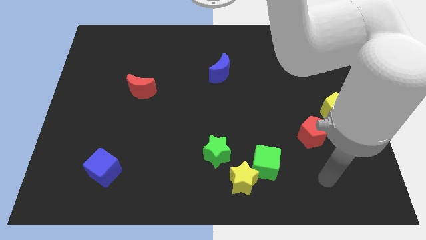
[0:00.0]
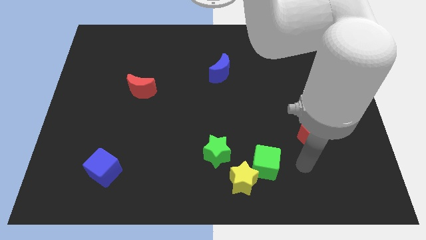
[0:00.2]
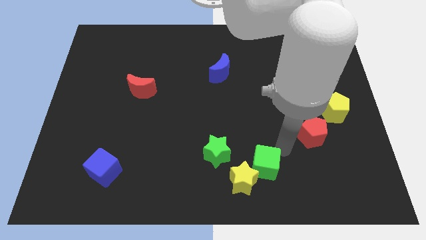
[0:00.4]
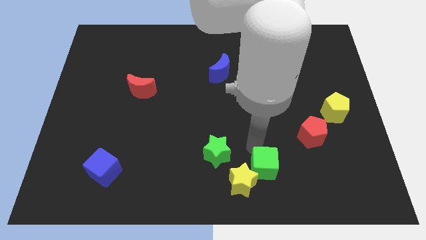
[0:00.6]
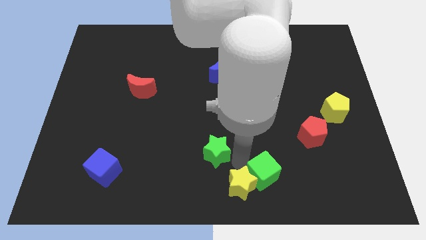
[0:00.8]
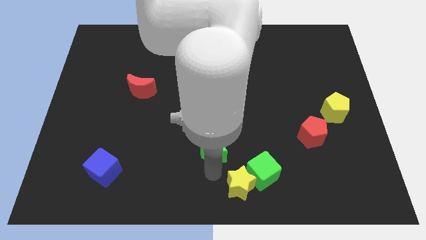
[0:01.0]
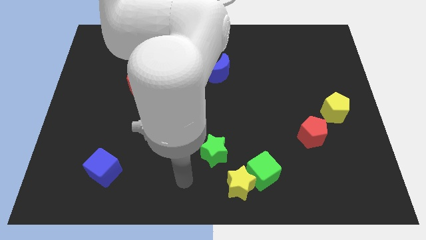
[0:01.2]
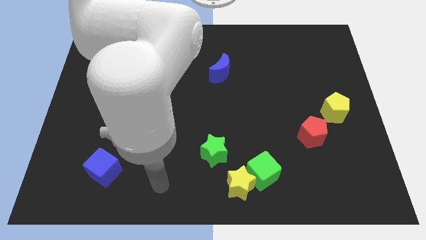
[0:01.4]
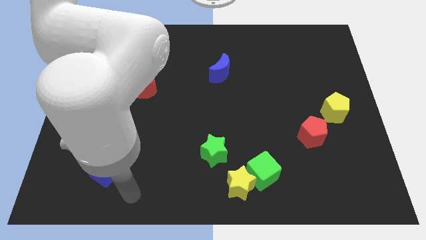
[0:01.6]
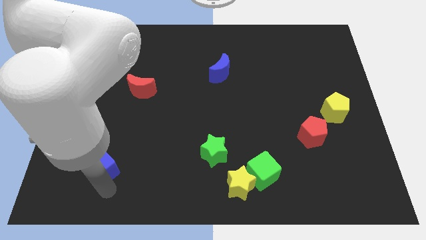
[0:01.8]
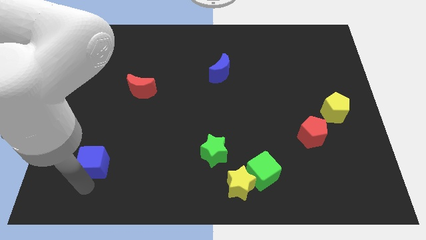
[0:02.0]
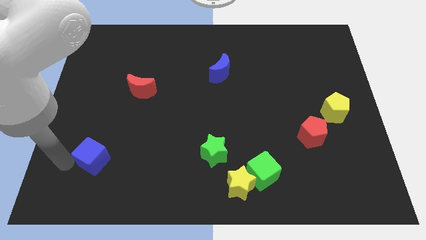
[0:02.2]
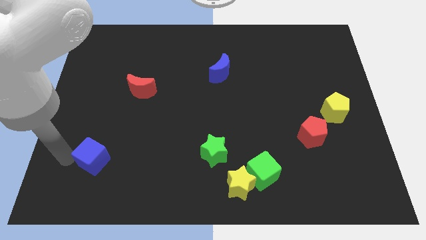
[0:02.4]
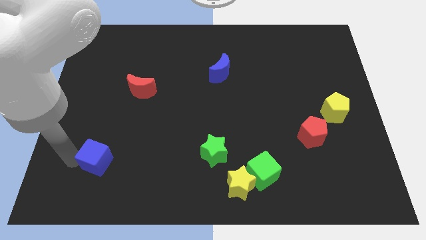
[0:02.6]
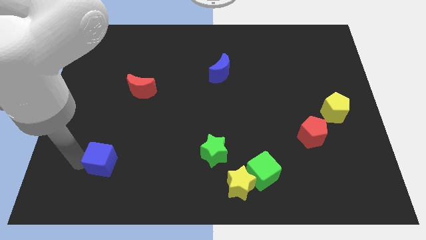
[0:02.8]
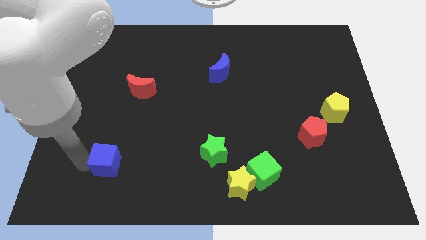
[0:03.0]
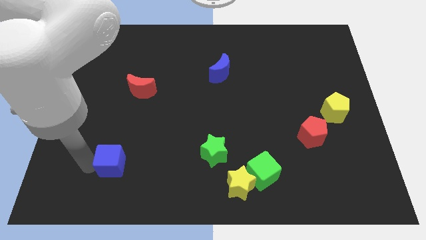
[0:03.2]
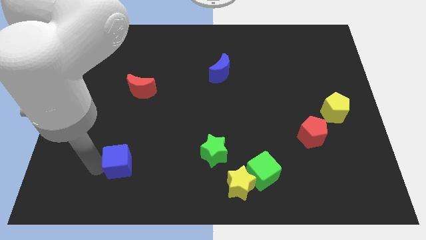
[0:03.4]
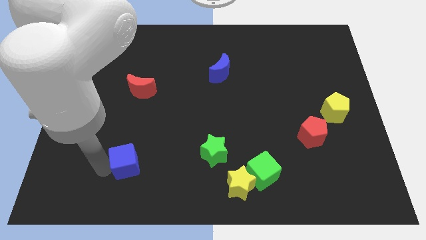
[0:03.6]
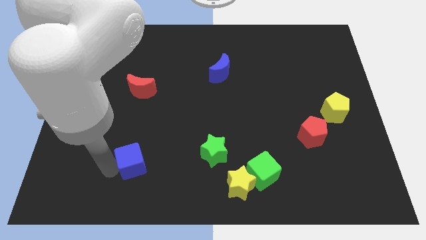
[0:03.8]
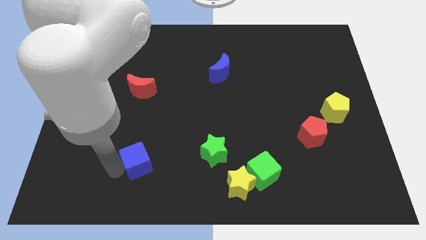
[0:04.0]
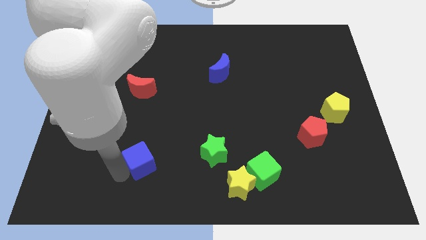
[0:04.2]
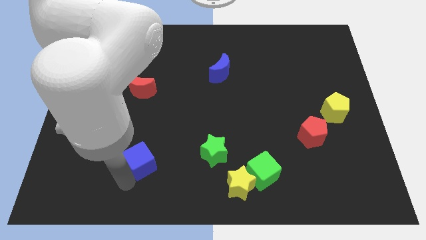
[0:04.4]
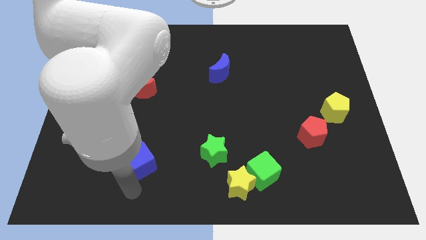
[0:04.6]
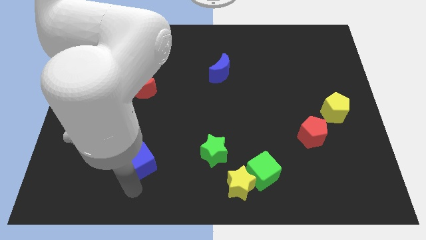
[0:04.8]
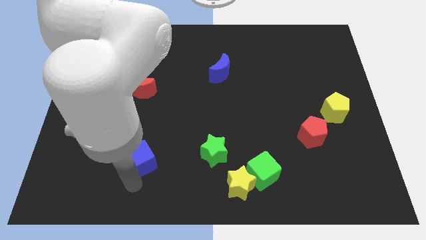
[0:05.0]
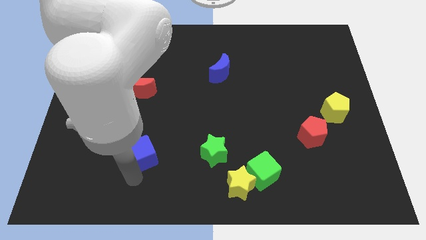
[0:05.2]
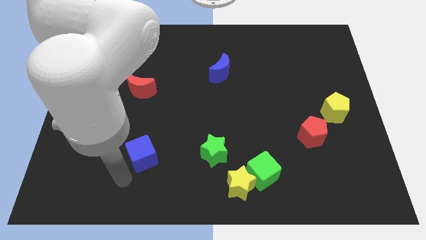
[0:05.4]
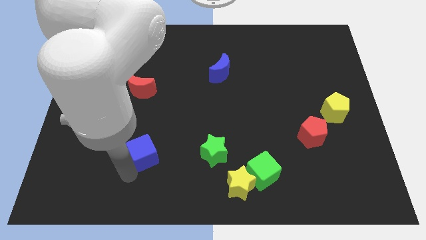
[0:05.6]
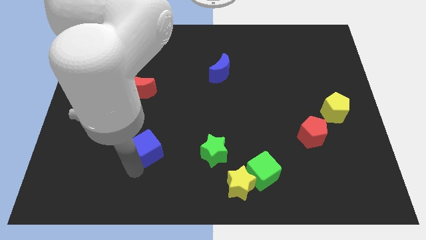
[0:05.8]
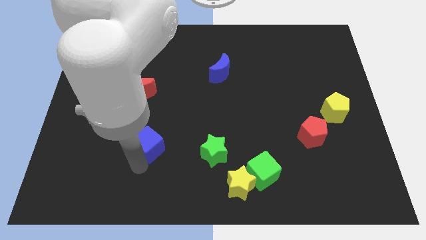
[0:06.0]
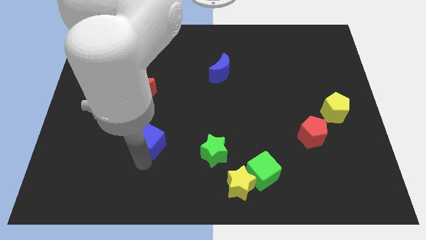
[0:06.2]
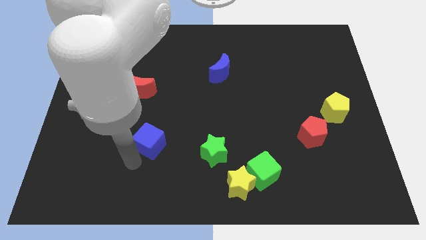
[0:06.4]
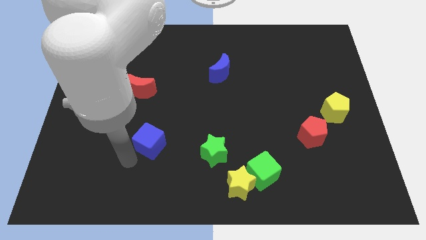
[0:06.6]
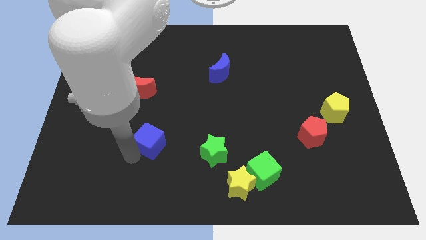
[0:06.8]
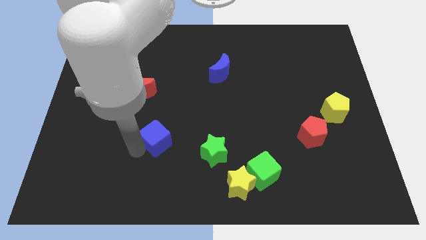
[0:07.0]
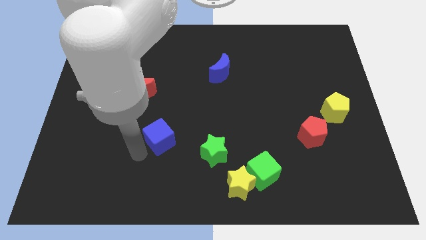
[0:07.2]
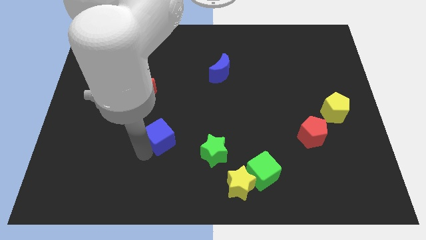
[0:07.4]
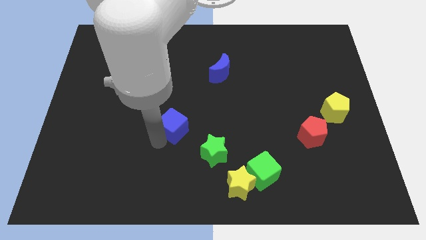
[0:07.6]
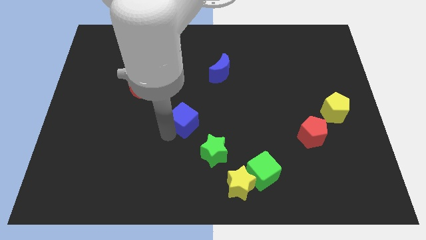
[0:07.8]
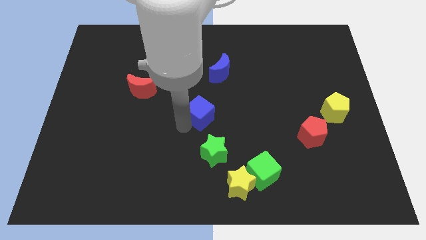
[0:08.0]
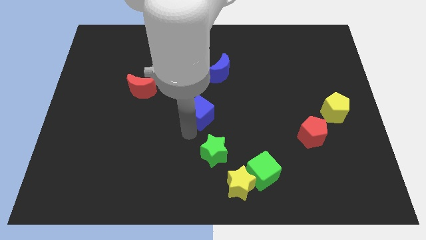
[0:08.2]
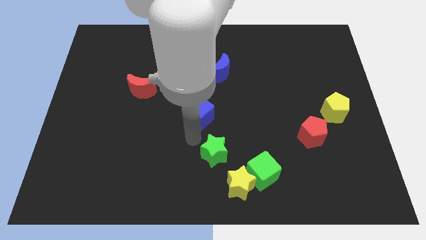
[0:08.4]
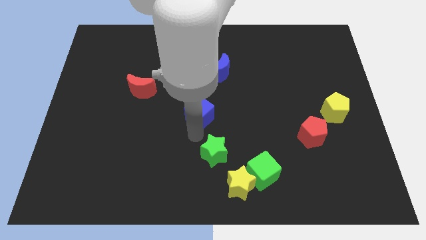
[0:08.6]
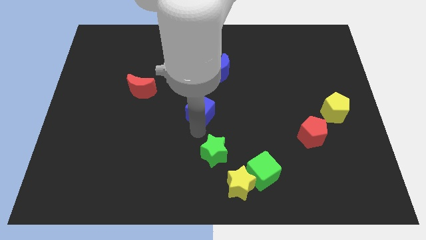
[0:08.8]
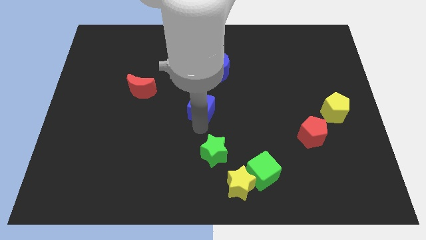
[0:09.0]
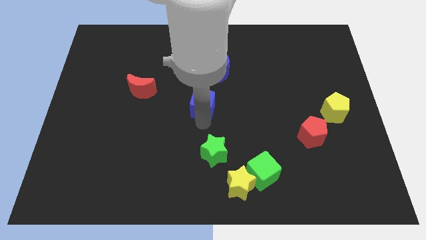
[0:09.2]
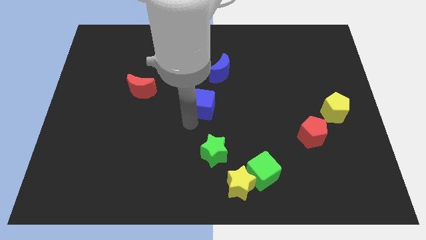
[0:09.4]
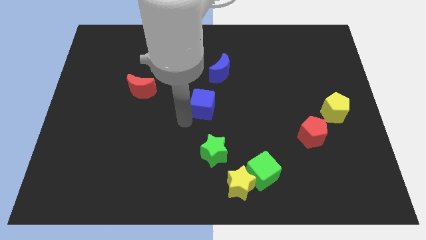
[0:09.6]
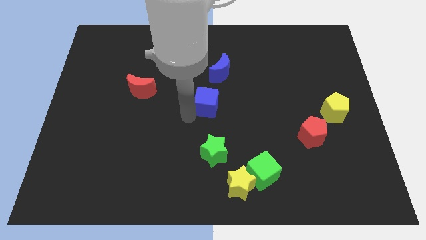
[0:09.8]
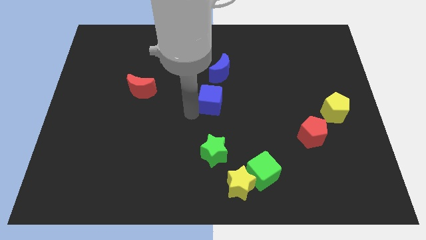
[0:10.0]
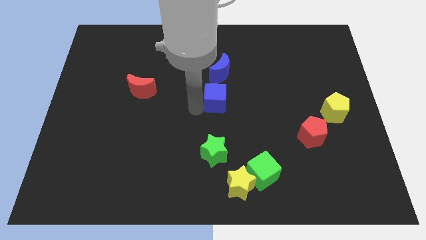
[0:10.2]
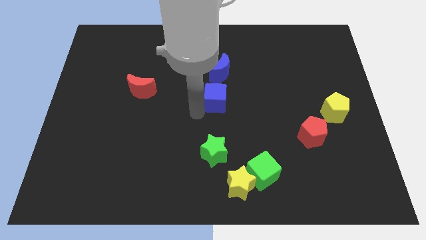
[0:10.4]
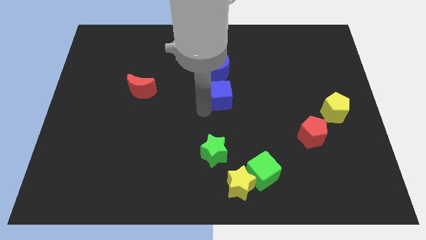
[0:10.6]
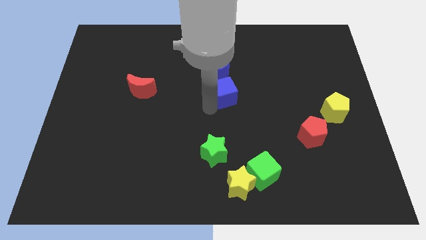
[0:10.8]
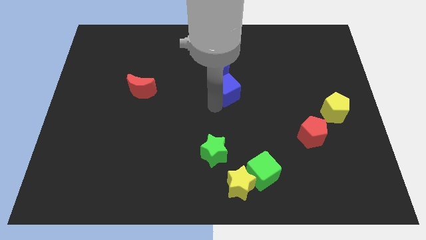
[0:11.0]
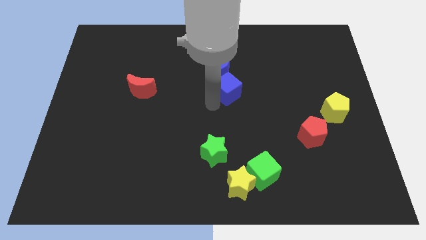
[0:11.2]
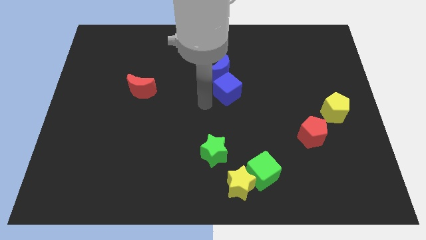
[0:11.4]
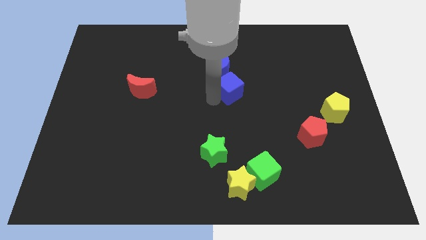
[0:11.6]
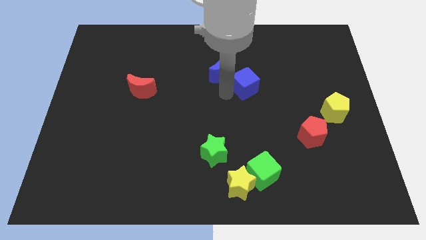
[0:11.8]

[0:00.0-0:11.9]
push the blue cube to the right of the blue moon

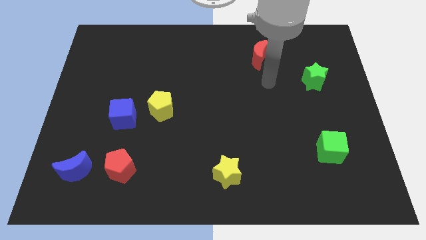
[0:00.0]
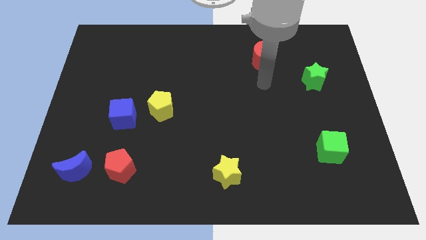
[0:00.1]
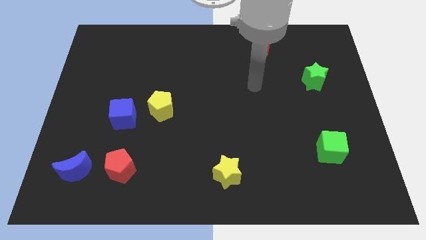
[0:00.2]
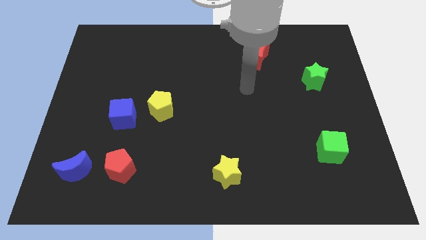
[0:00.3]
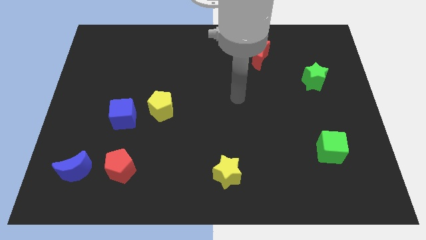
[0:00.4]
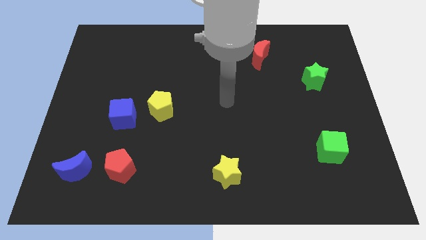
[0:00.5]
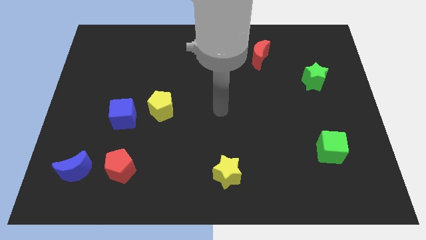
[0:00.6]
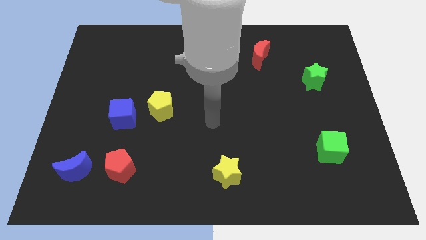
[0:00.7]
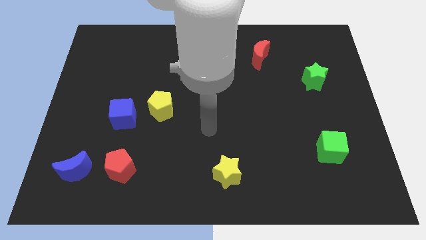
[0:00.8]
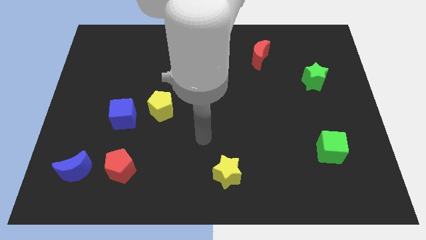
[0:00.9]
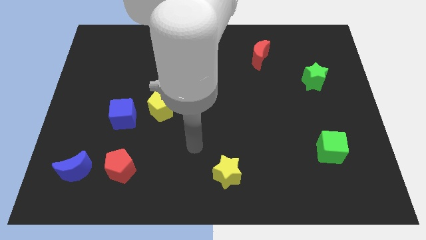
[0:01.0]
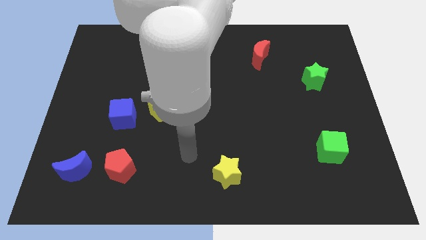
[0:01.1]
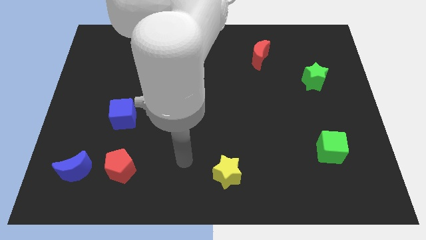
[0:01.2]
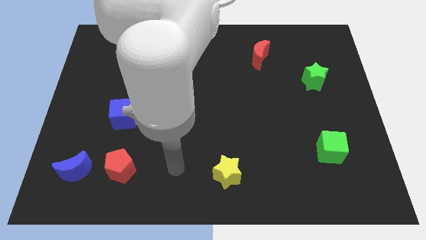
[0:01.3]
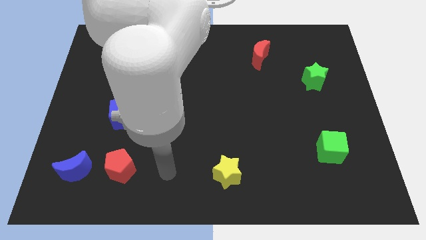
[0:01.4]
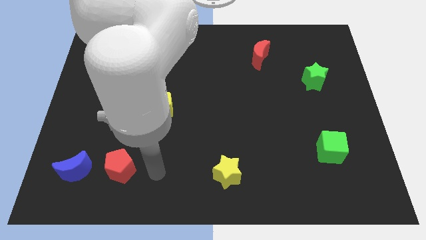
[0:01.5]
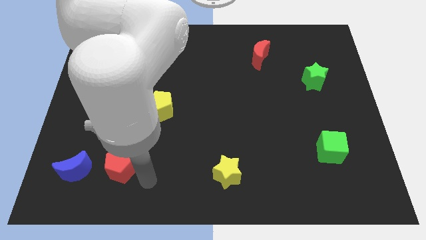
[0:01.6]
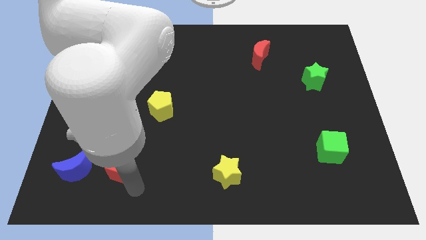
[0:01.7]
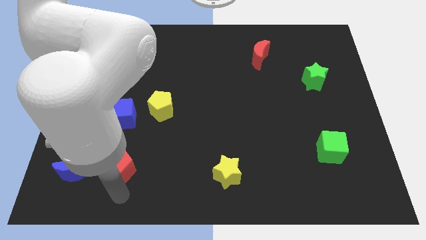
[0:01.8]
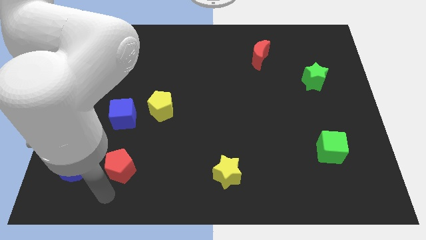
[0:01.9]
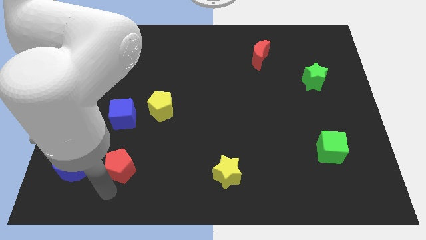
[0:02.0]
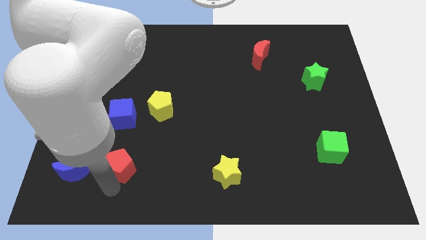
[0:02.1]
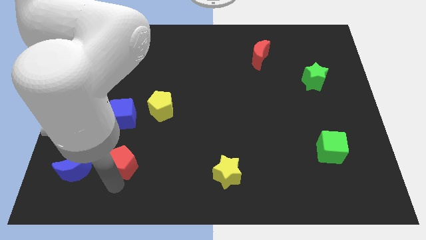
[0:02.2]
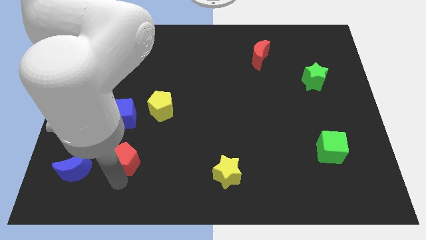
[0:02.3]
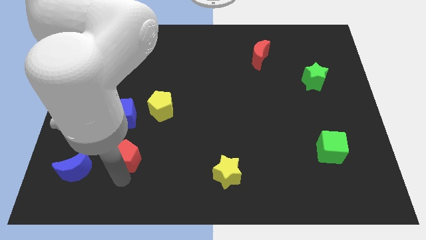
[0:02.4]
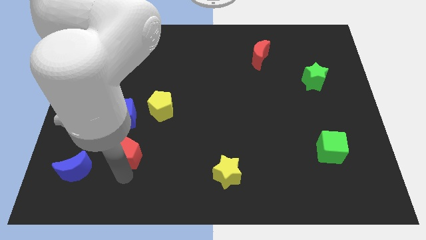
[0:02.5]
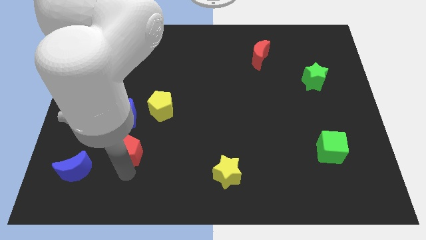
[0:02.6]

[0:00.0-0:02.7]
move the red pentagon diagonally down and to the right of the blue cube
